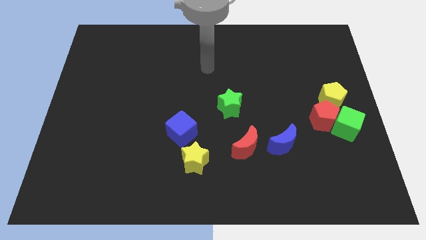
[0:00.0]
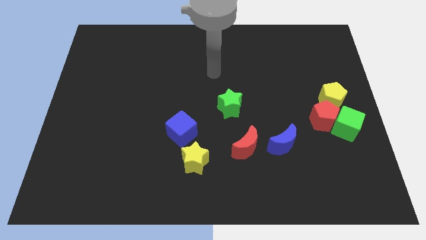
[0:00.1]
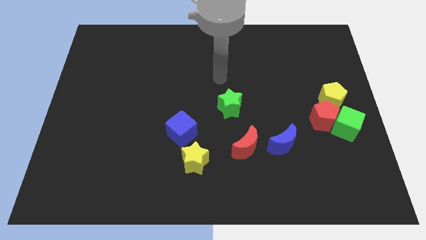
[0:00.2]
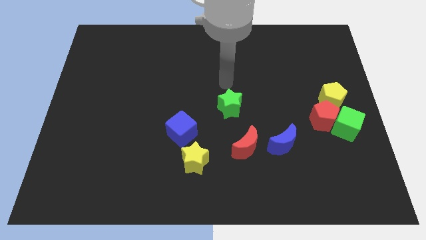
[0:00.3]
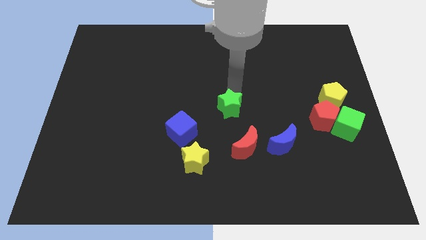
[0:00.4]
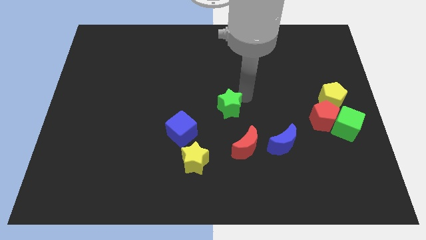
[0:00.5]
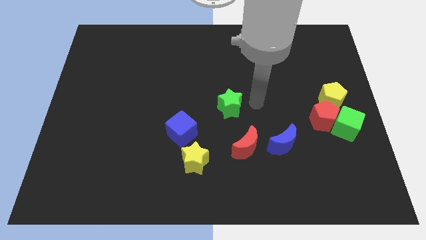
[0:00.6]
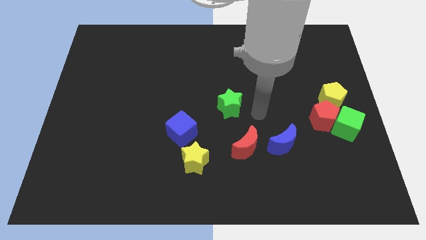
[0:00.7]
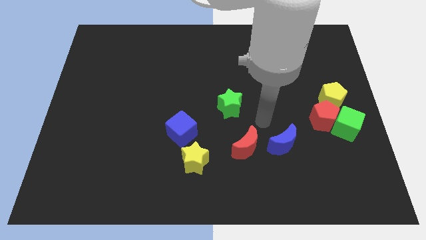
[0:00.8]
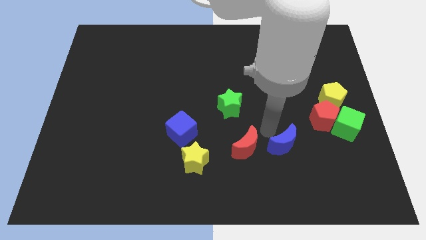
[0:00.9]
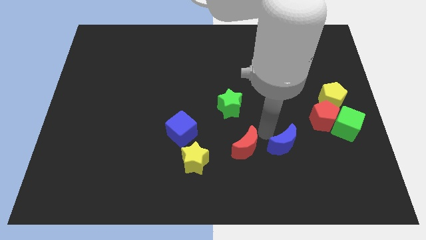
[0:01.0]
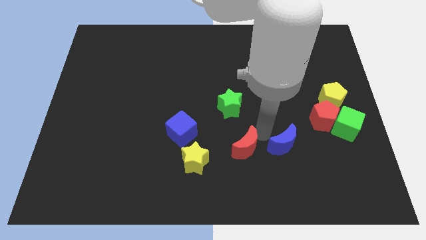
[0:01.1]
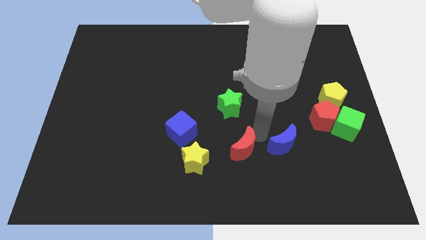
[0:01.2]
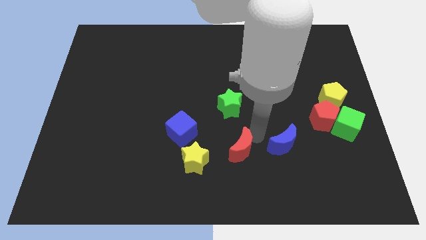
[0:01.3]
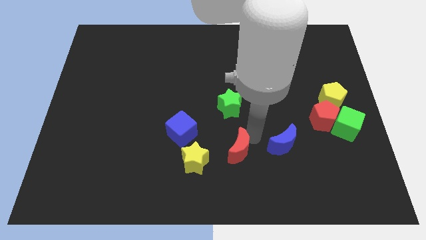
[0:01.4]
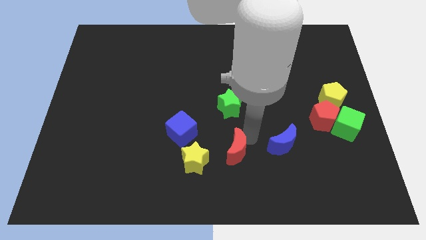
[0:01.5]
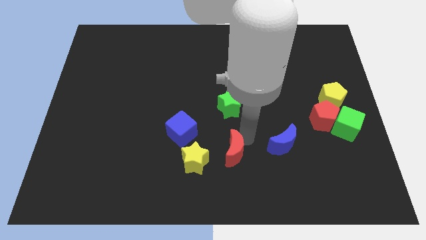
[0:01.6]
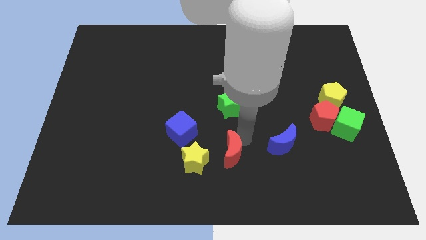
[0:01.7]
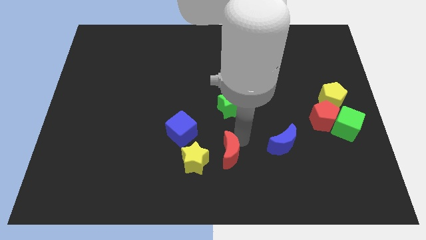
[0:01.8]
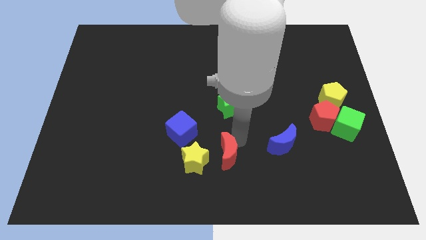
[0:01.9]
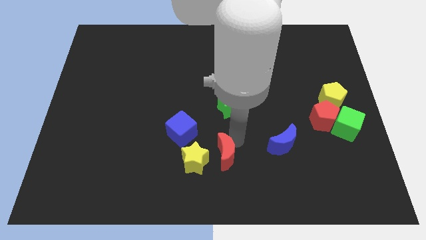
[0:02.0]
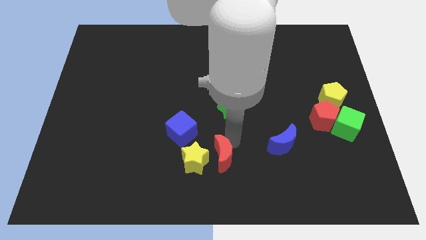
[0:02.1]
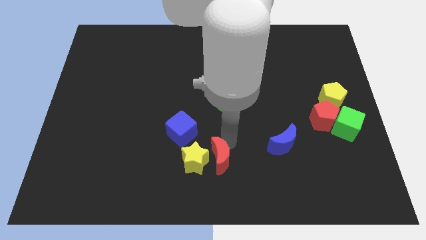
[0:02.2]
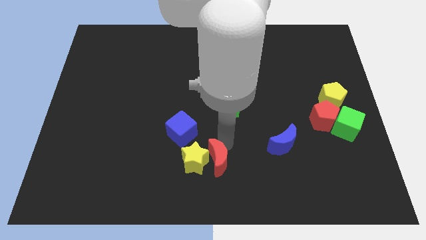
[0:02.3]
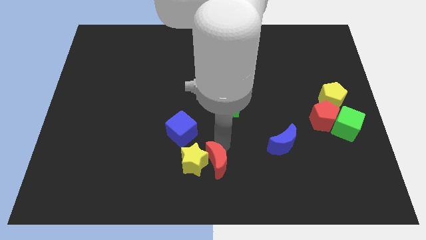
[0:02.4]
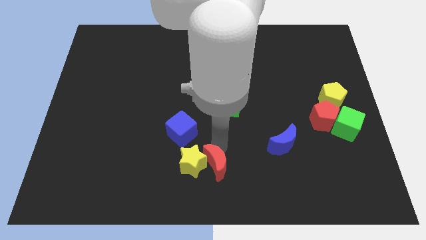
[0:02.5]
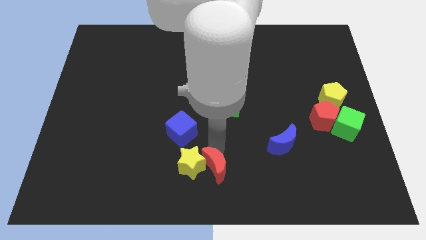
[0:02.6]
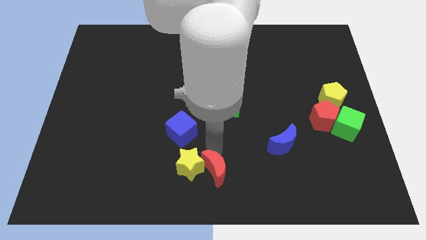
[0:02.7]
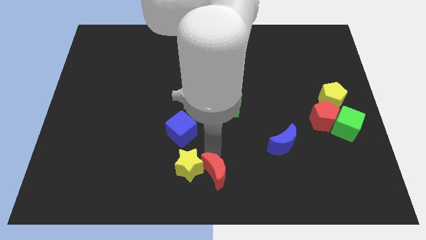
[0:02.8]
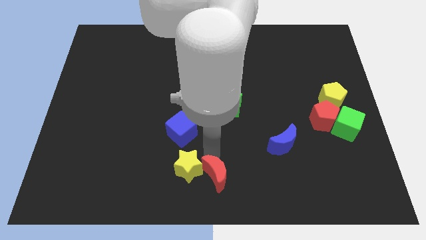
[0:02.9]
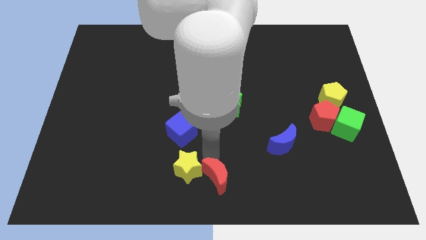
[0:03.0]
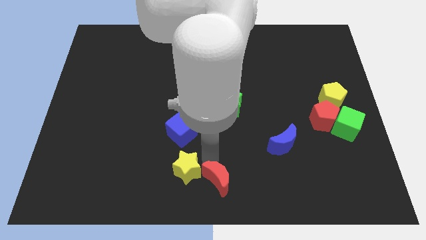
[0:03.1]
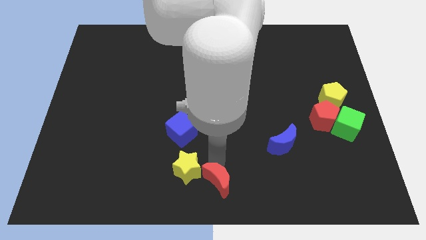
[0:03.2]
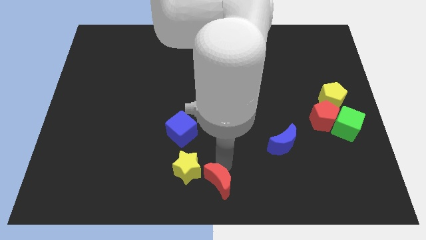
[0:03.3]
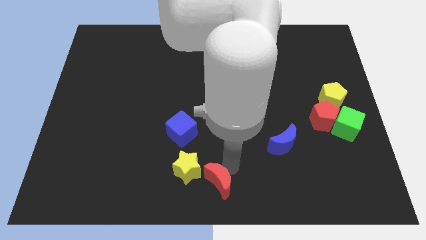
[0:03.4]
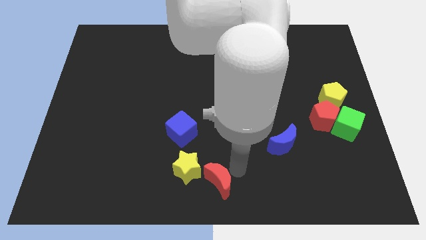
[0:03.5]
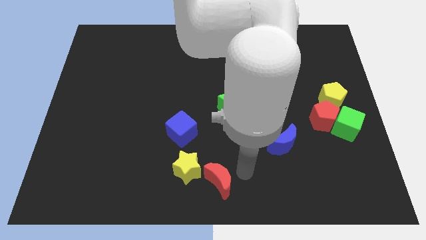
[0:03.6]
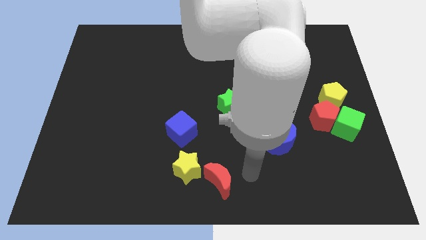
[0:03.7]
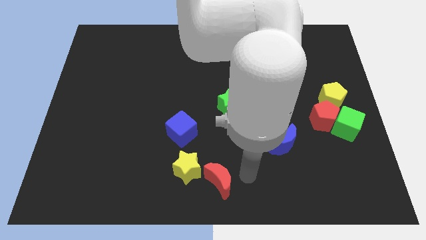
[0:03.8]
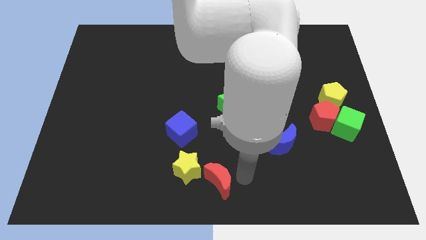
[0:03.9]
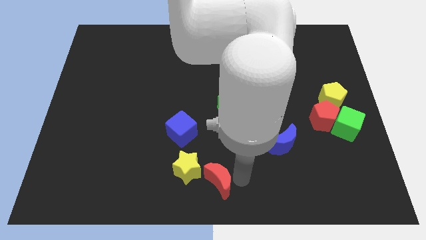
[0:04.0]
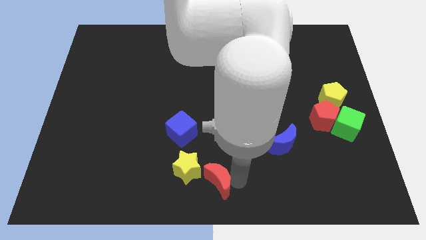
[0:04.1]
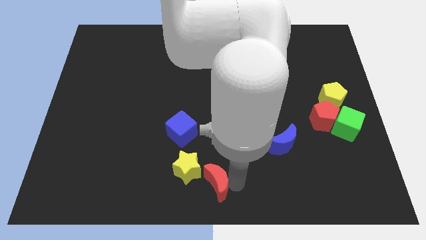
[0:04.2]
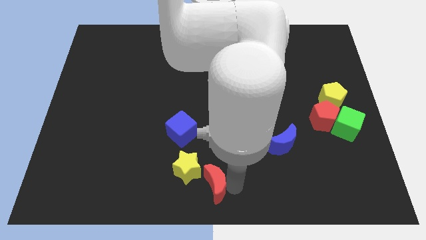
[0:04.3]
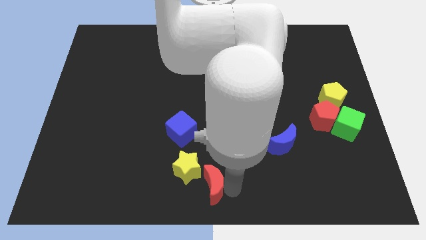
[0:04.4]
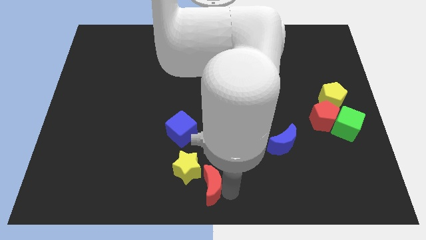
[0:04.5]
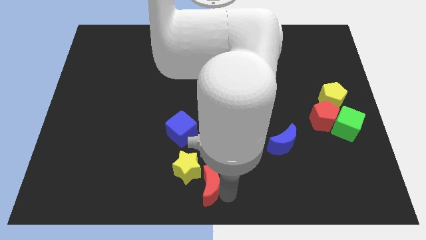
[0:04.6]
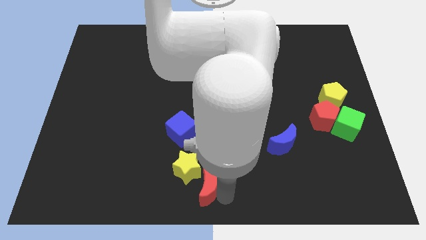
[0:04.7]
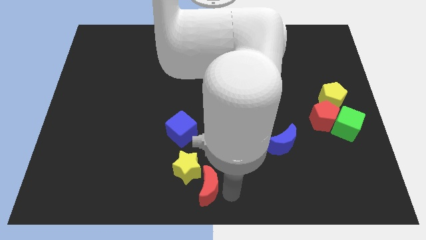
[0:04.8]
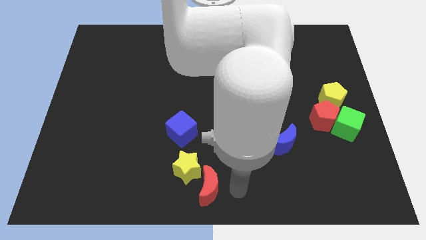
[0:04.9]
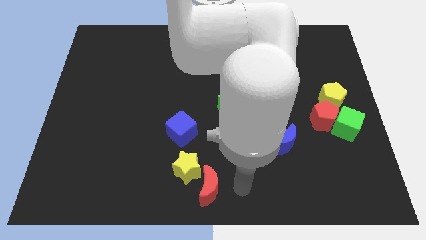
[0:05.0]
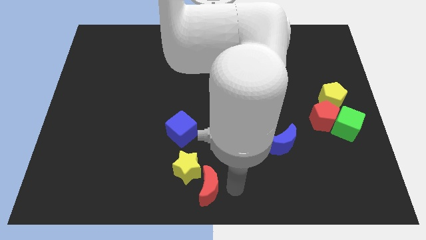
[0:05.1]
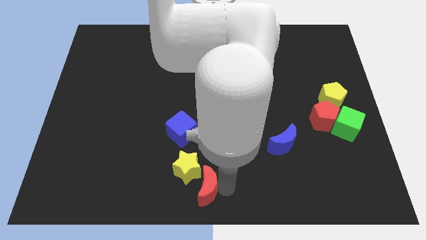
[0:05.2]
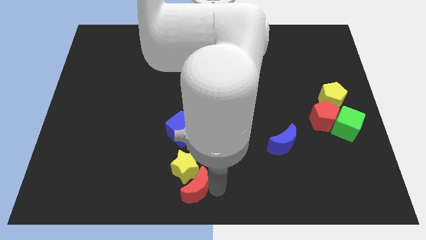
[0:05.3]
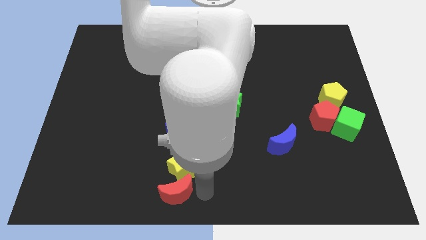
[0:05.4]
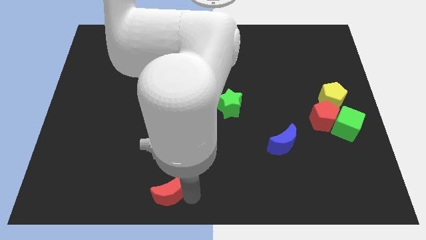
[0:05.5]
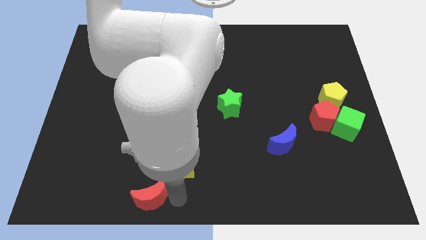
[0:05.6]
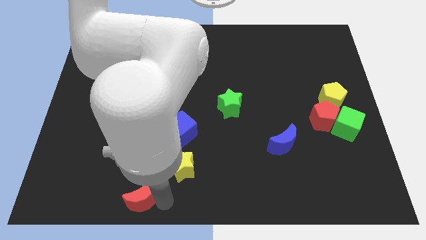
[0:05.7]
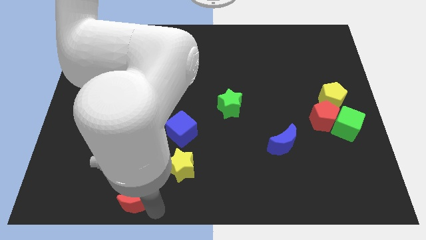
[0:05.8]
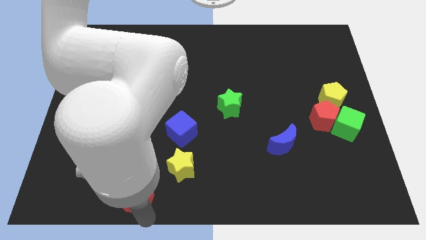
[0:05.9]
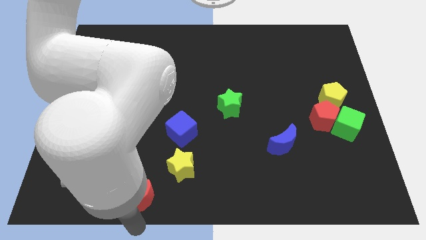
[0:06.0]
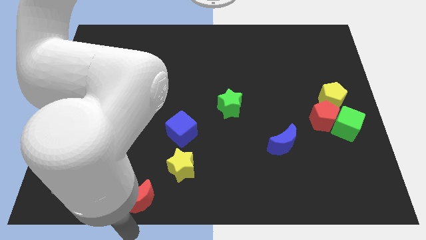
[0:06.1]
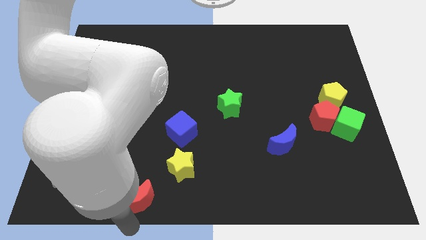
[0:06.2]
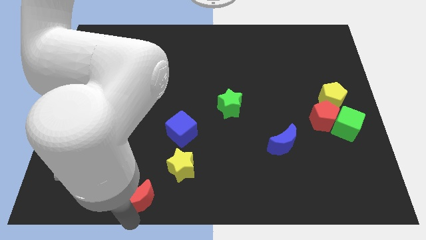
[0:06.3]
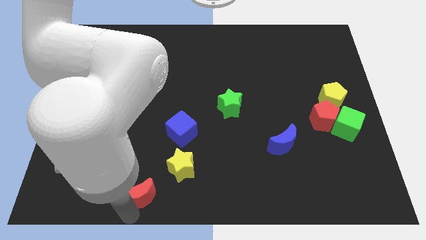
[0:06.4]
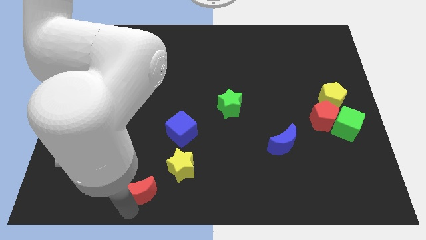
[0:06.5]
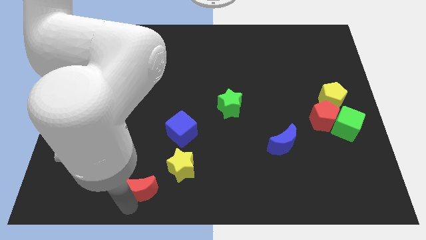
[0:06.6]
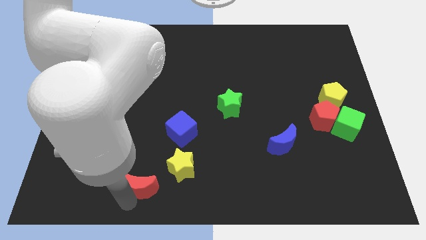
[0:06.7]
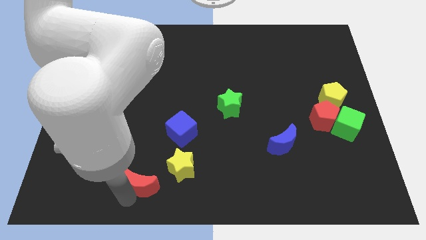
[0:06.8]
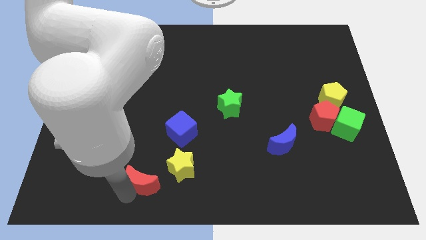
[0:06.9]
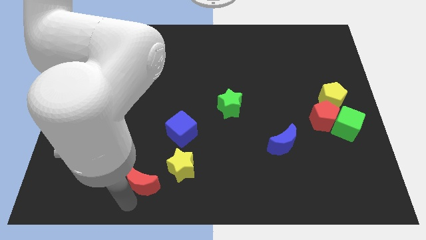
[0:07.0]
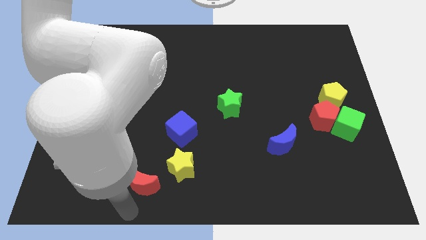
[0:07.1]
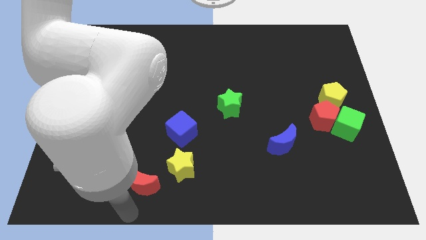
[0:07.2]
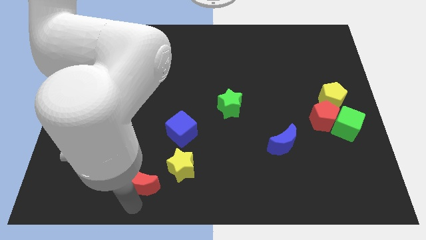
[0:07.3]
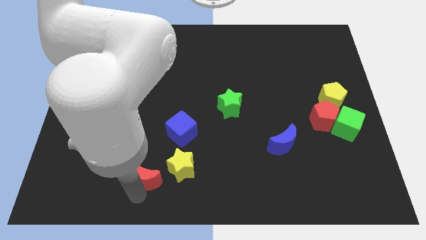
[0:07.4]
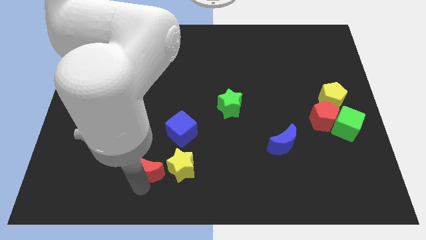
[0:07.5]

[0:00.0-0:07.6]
push the red moon to the bottom left of the blue cube
